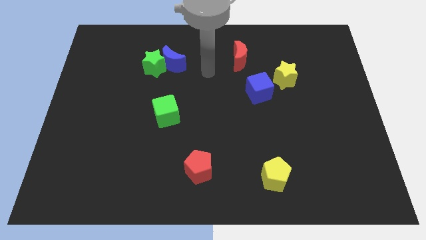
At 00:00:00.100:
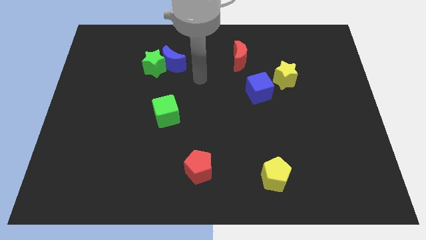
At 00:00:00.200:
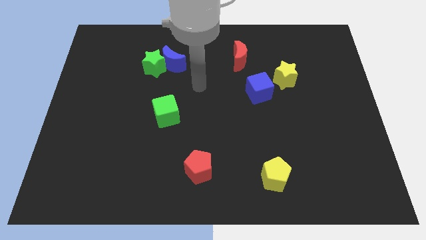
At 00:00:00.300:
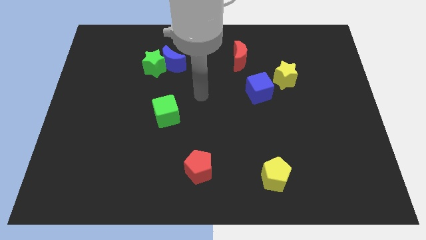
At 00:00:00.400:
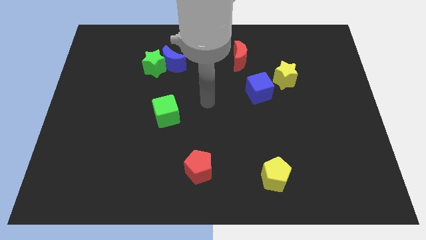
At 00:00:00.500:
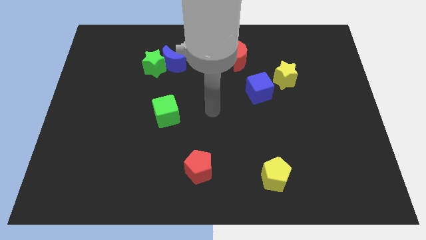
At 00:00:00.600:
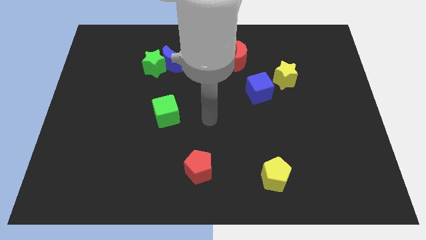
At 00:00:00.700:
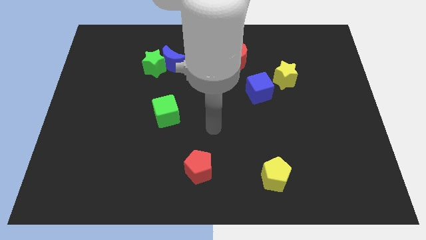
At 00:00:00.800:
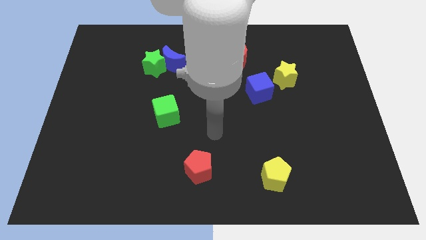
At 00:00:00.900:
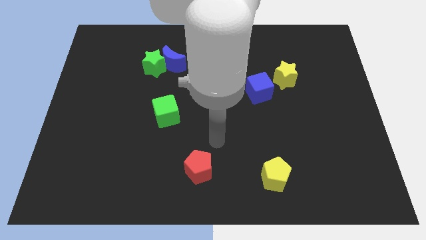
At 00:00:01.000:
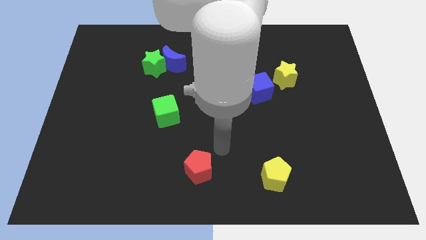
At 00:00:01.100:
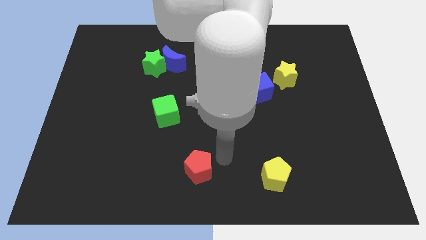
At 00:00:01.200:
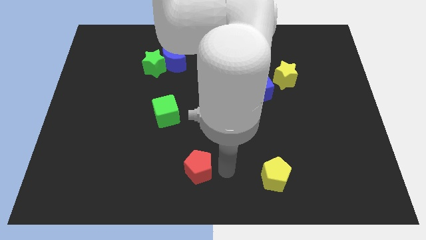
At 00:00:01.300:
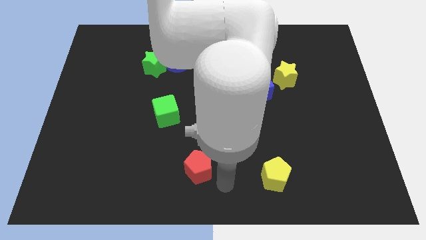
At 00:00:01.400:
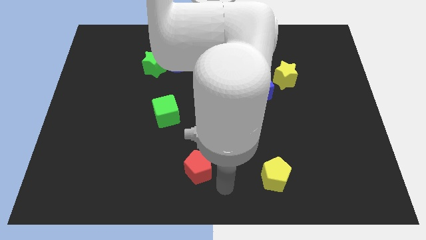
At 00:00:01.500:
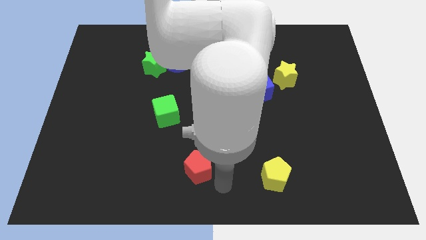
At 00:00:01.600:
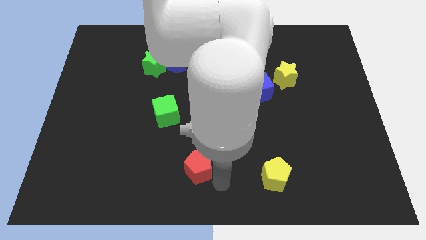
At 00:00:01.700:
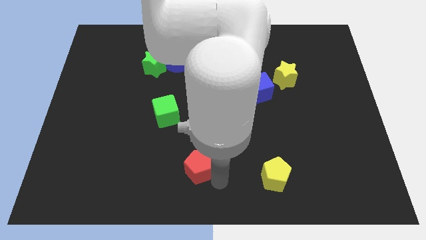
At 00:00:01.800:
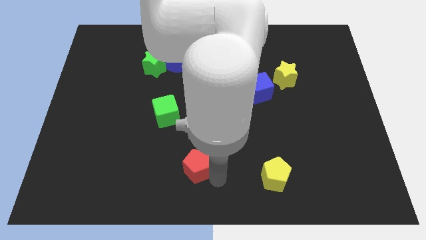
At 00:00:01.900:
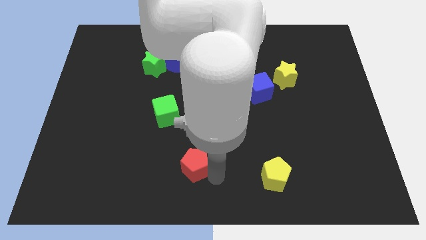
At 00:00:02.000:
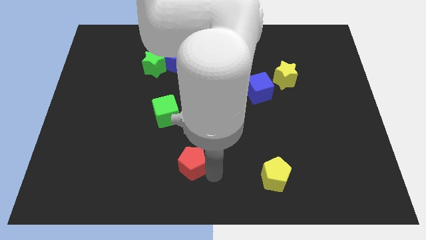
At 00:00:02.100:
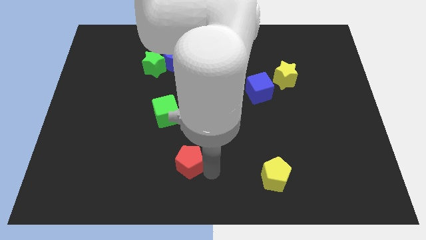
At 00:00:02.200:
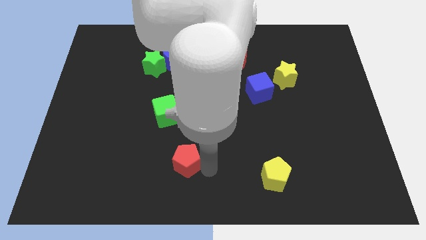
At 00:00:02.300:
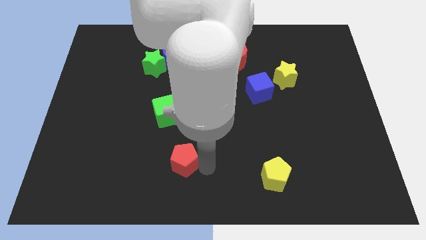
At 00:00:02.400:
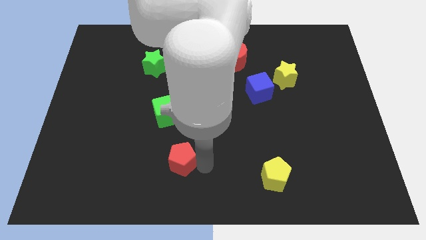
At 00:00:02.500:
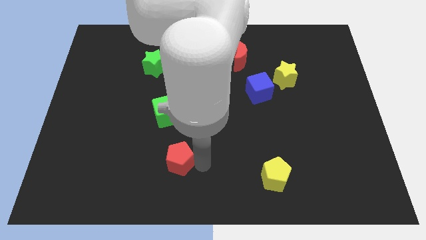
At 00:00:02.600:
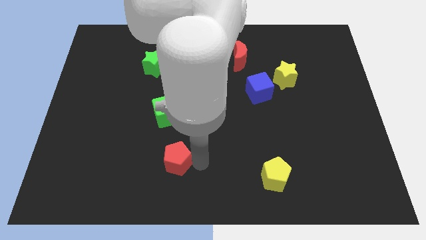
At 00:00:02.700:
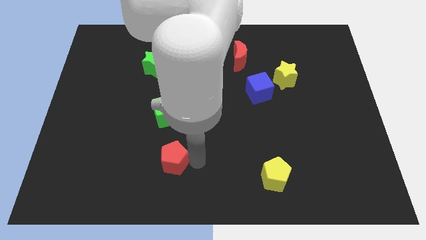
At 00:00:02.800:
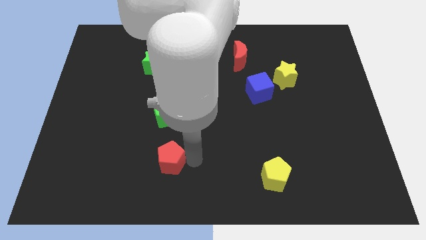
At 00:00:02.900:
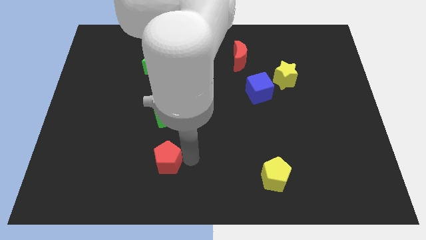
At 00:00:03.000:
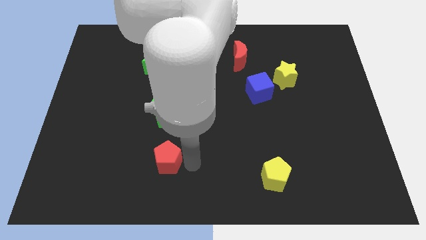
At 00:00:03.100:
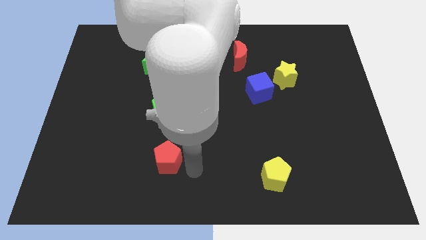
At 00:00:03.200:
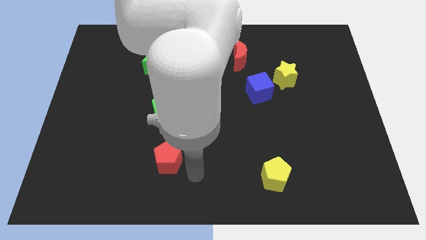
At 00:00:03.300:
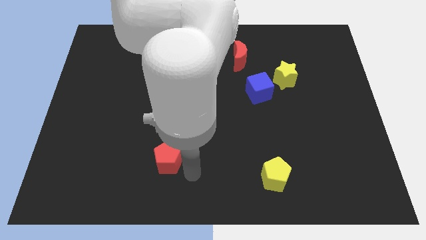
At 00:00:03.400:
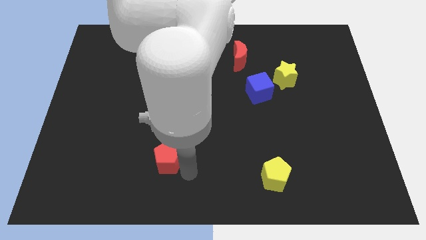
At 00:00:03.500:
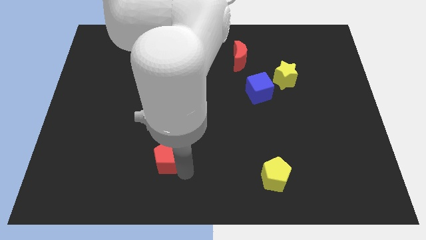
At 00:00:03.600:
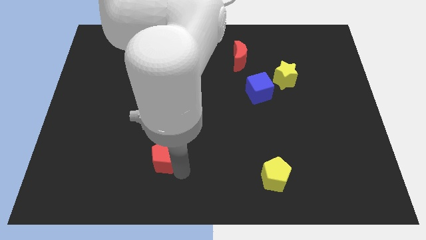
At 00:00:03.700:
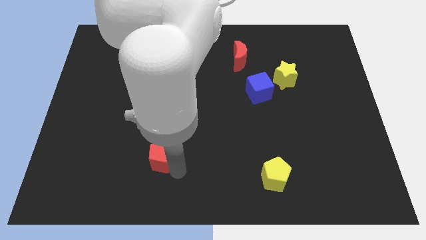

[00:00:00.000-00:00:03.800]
slightly slide the red pentagon up and to the left

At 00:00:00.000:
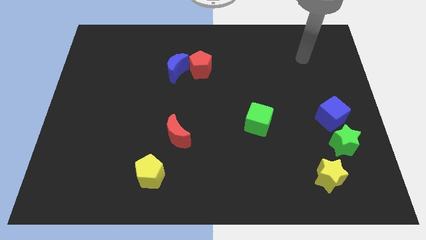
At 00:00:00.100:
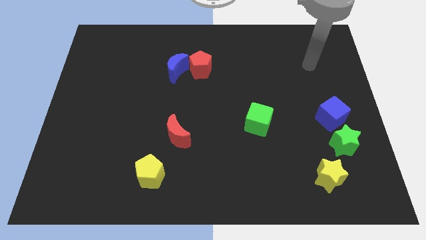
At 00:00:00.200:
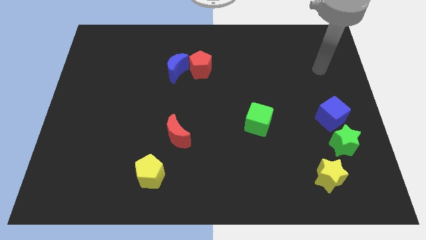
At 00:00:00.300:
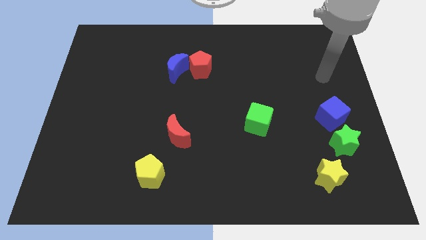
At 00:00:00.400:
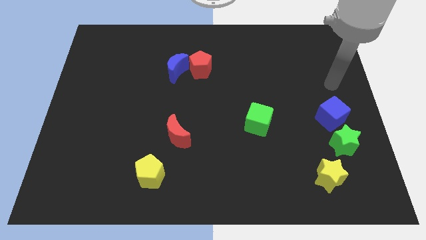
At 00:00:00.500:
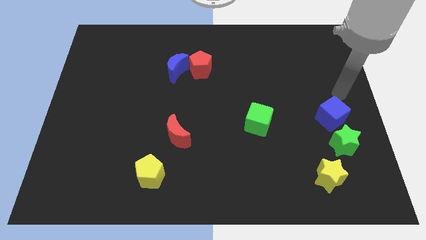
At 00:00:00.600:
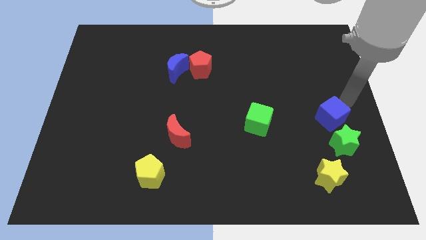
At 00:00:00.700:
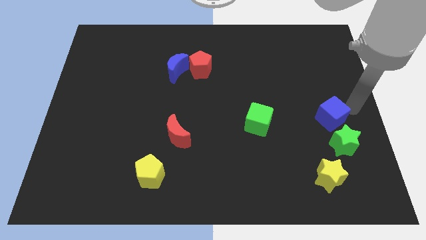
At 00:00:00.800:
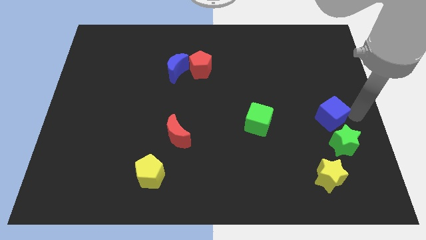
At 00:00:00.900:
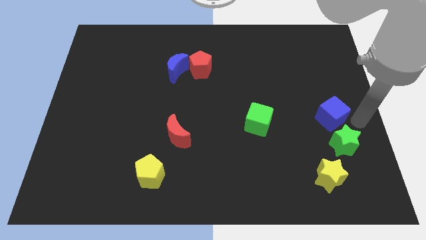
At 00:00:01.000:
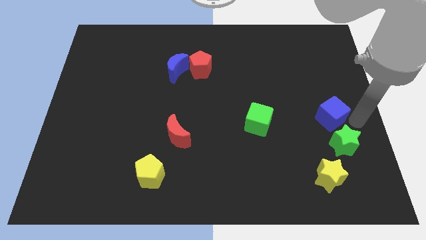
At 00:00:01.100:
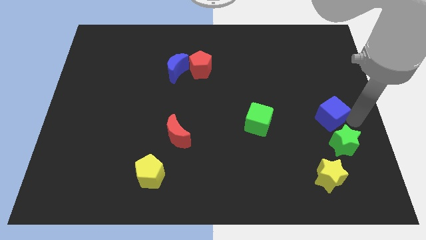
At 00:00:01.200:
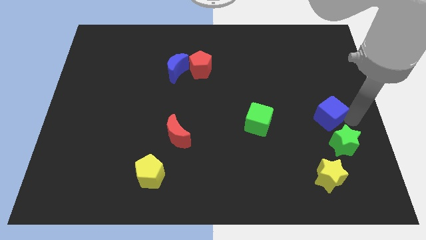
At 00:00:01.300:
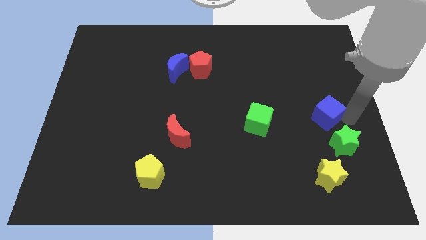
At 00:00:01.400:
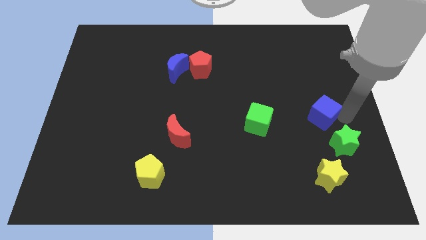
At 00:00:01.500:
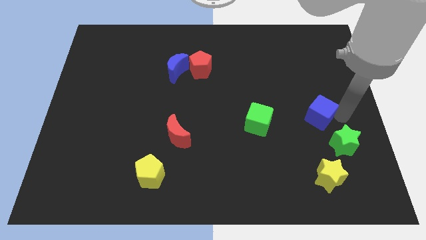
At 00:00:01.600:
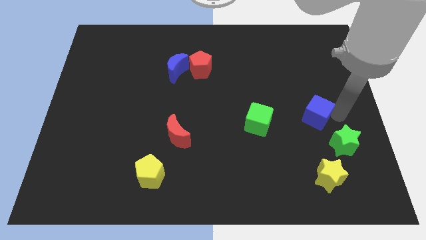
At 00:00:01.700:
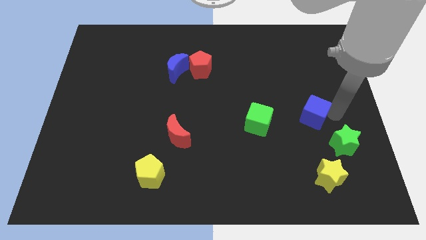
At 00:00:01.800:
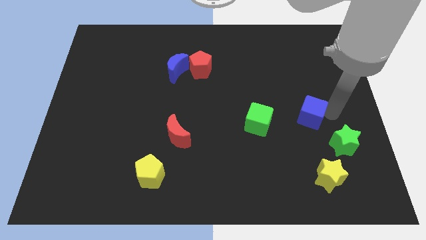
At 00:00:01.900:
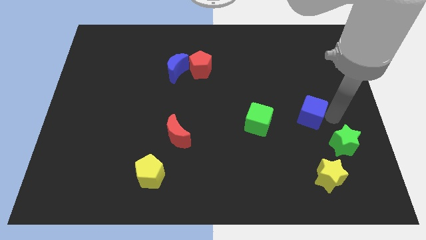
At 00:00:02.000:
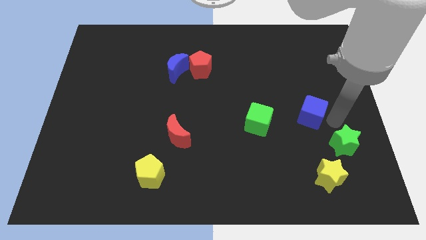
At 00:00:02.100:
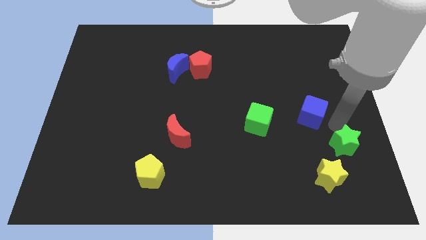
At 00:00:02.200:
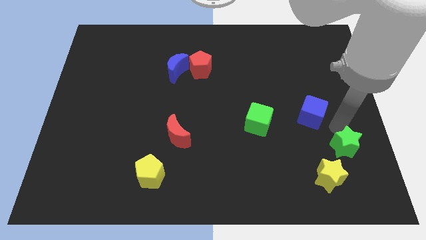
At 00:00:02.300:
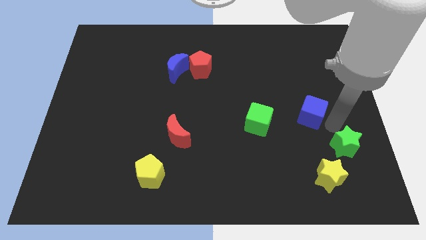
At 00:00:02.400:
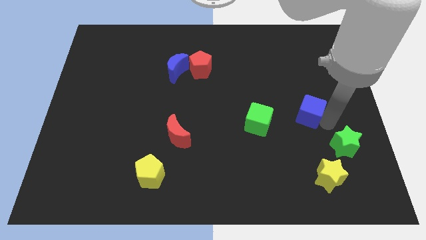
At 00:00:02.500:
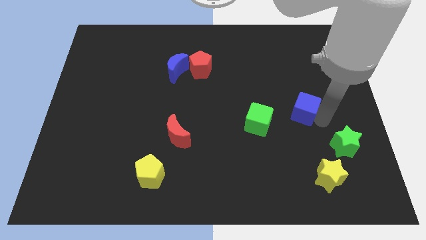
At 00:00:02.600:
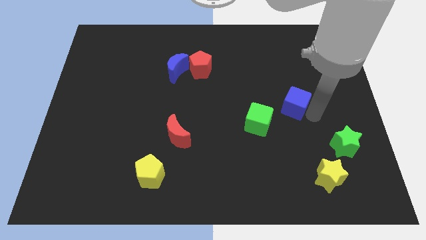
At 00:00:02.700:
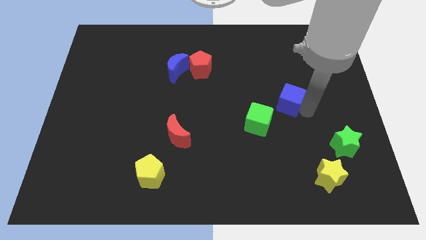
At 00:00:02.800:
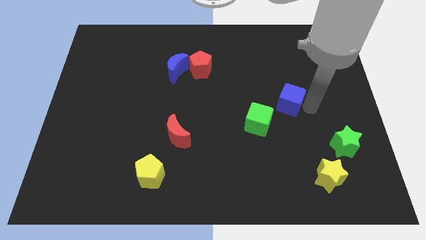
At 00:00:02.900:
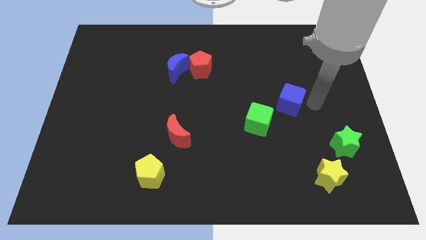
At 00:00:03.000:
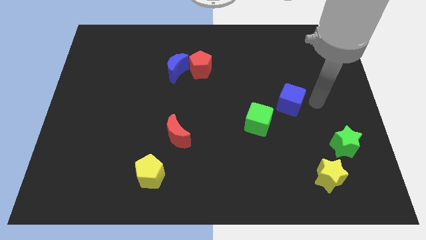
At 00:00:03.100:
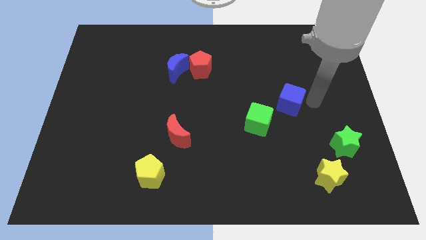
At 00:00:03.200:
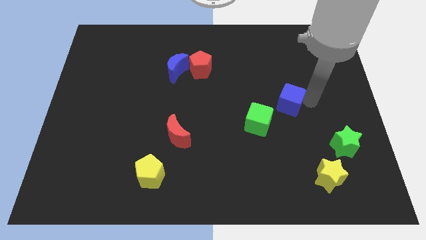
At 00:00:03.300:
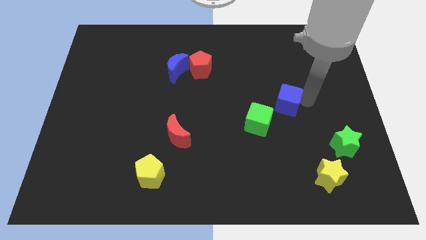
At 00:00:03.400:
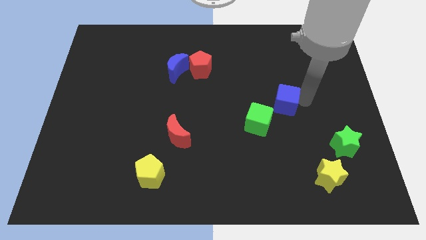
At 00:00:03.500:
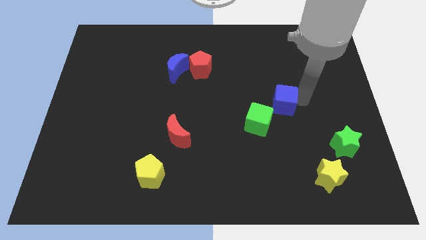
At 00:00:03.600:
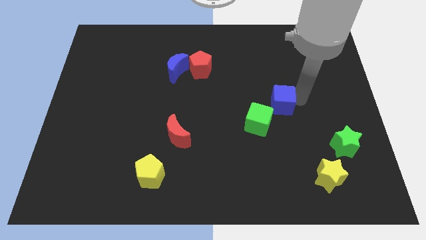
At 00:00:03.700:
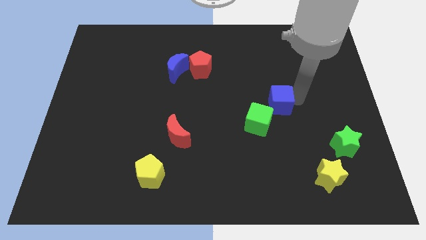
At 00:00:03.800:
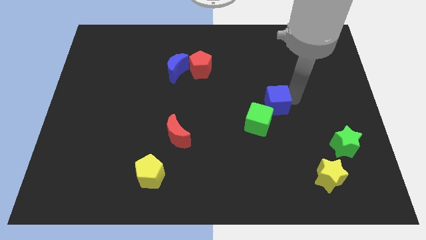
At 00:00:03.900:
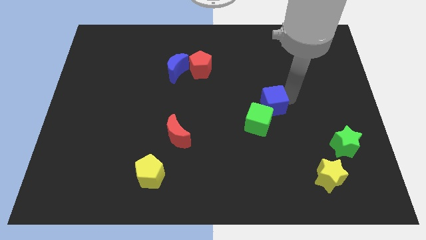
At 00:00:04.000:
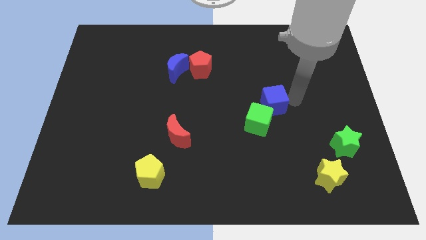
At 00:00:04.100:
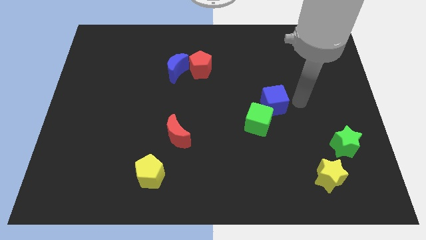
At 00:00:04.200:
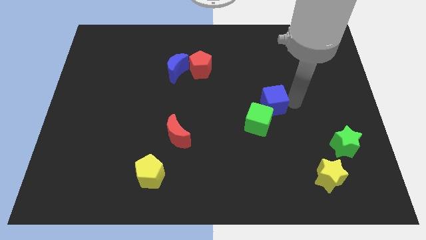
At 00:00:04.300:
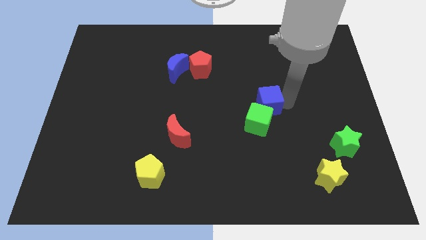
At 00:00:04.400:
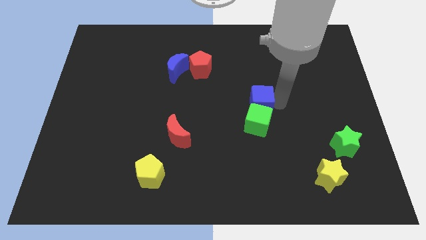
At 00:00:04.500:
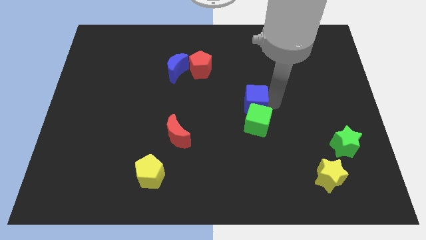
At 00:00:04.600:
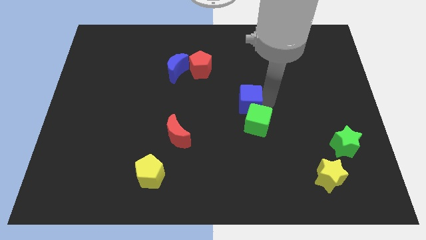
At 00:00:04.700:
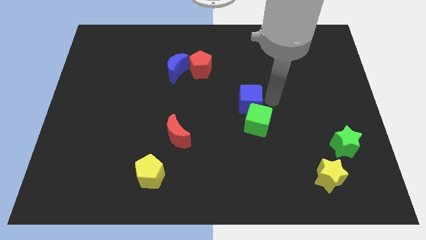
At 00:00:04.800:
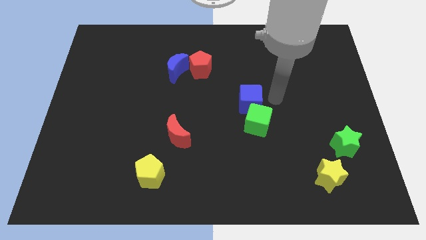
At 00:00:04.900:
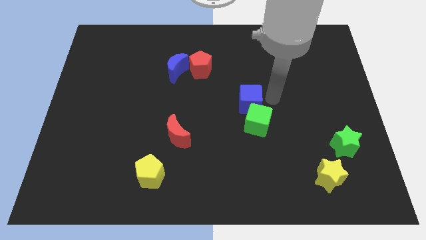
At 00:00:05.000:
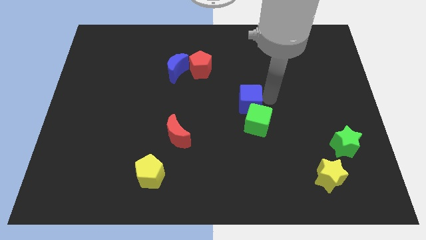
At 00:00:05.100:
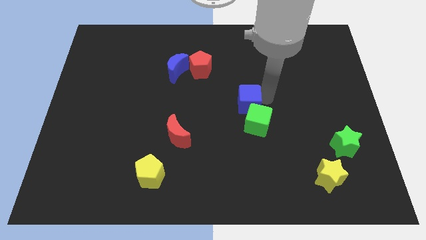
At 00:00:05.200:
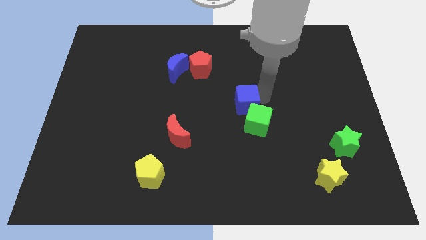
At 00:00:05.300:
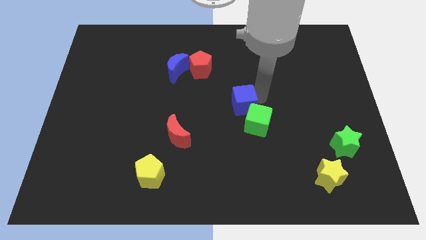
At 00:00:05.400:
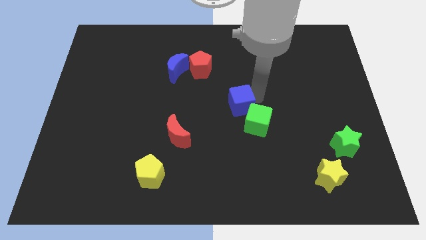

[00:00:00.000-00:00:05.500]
slide the blue cube left
